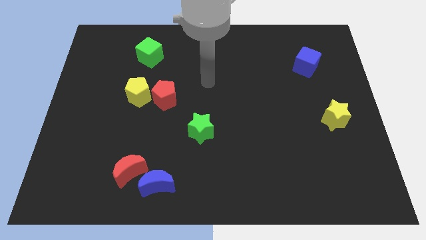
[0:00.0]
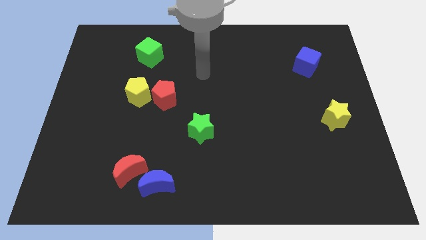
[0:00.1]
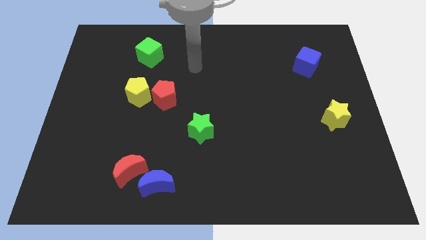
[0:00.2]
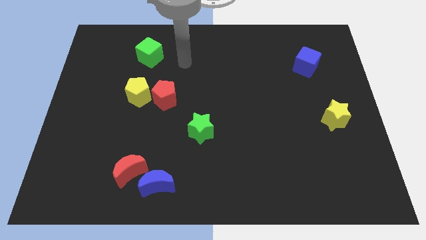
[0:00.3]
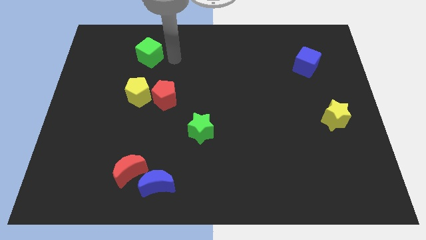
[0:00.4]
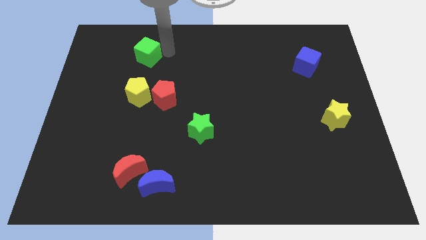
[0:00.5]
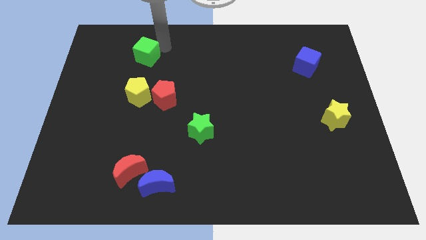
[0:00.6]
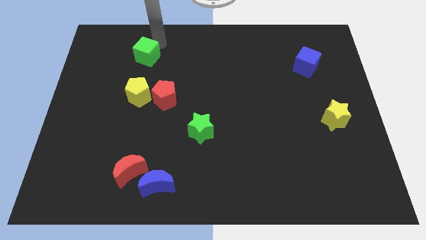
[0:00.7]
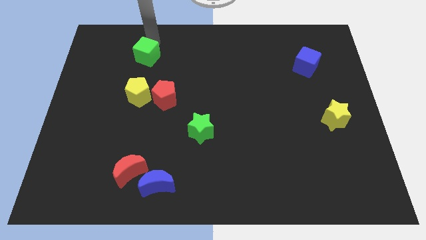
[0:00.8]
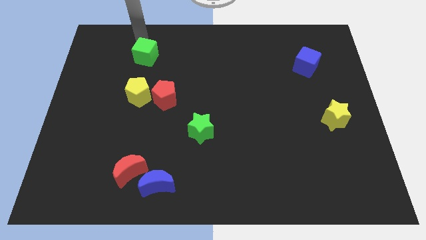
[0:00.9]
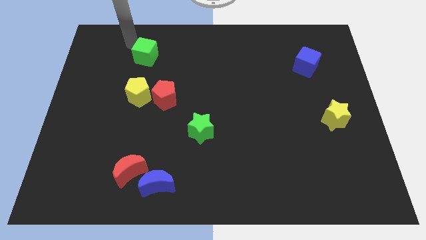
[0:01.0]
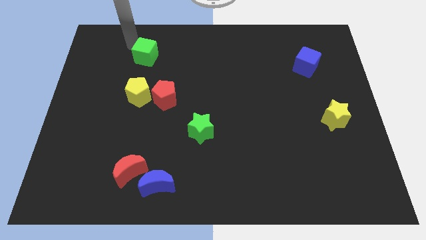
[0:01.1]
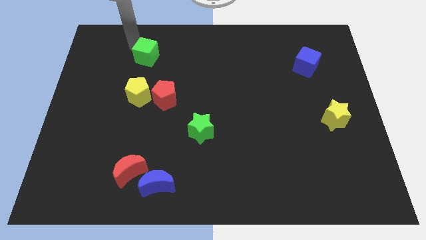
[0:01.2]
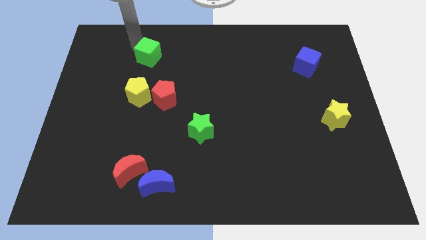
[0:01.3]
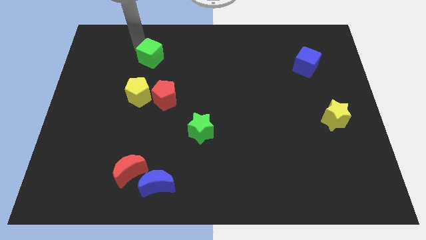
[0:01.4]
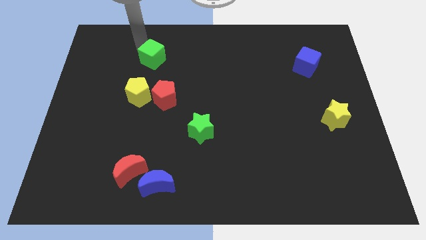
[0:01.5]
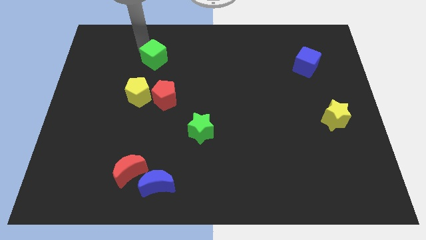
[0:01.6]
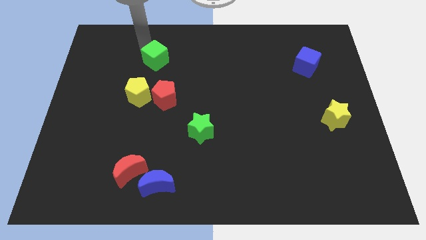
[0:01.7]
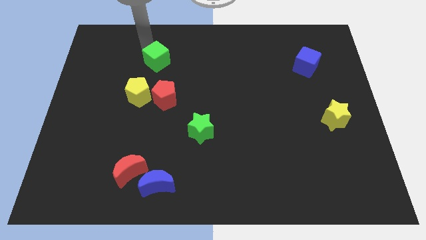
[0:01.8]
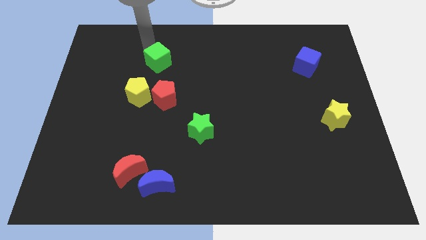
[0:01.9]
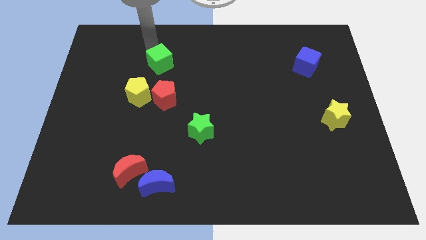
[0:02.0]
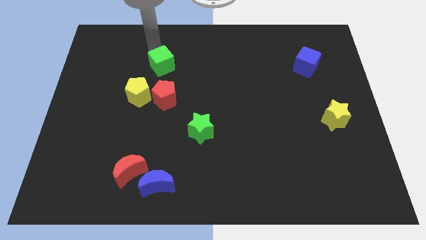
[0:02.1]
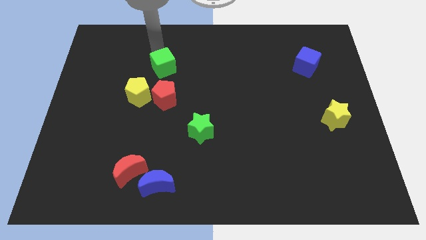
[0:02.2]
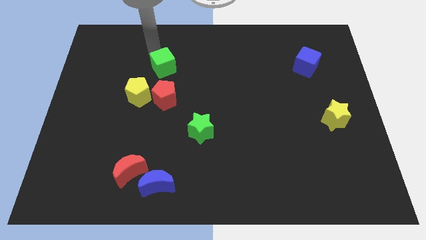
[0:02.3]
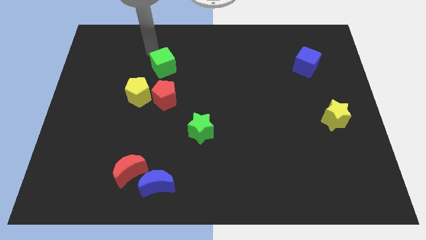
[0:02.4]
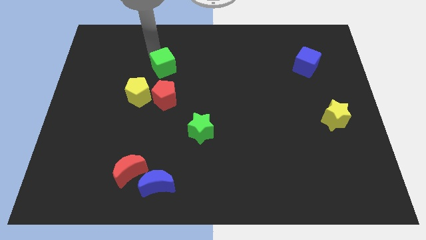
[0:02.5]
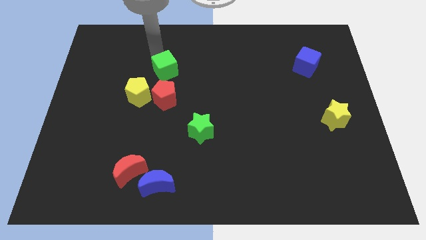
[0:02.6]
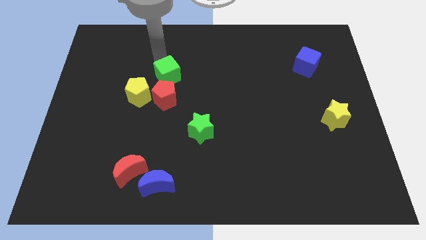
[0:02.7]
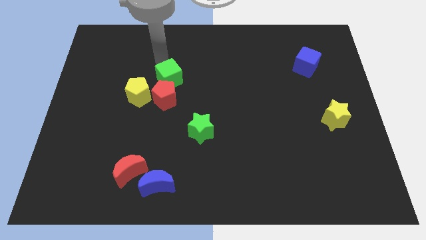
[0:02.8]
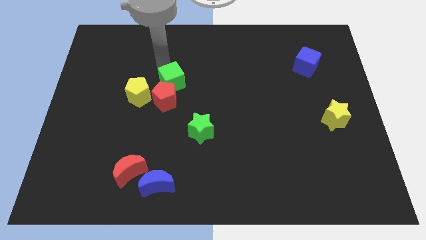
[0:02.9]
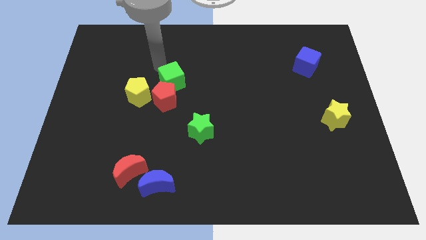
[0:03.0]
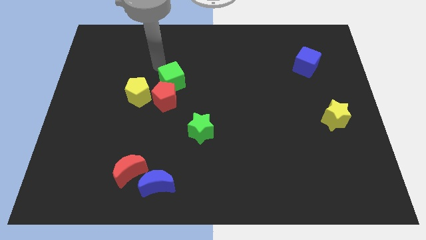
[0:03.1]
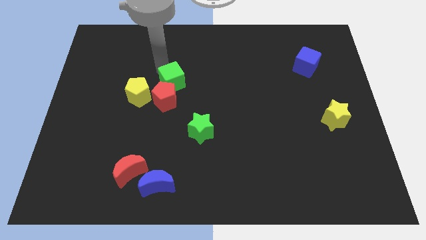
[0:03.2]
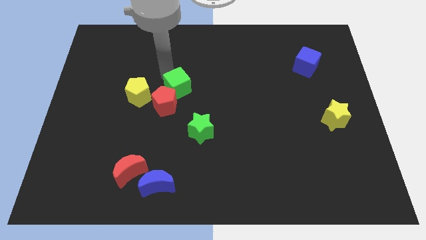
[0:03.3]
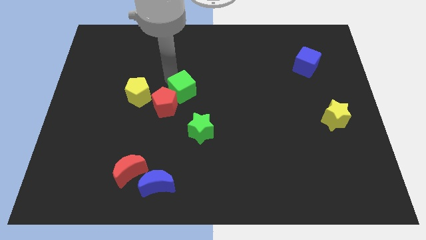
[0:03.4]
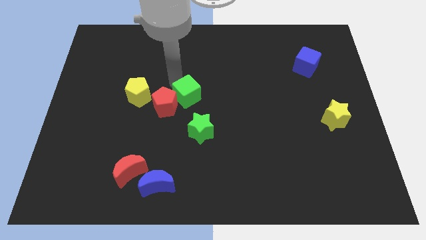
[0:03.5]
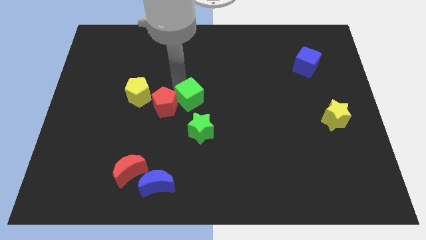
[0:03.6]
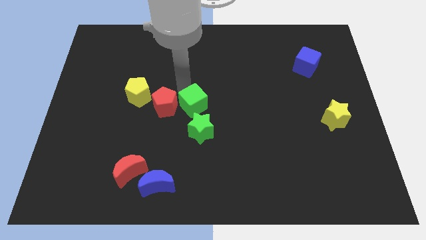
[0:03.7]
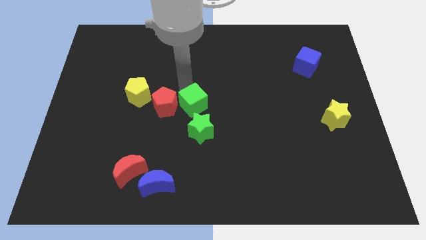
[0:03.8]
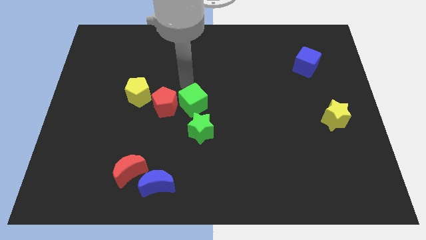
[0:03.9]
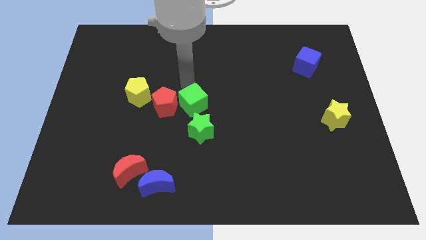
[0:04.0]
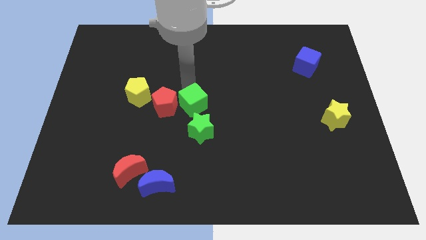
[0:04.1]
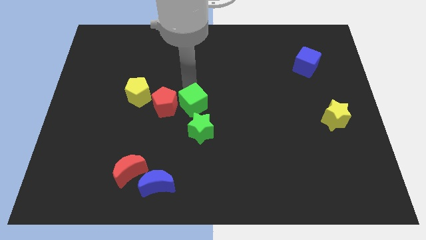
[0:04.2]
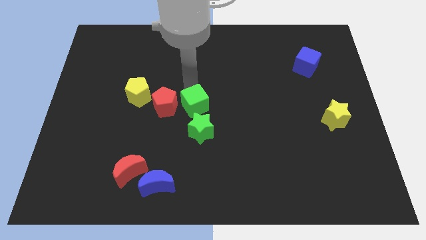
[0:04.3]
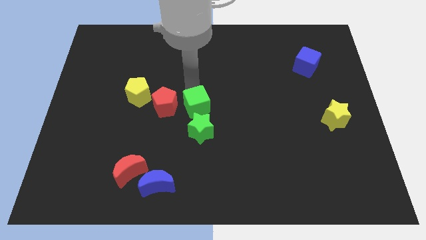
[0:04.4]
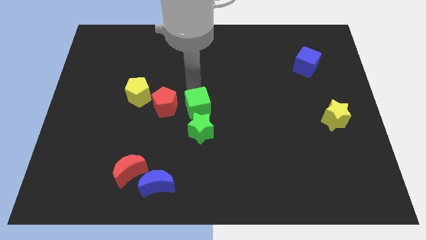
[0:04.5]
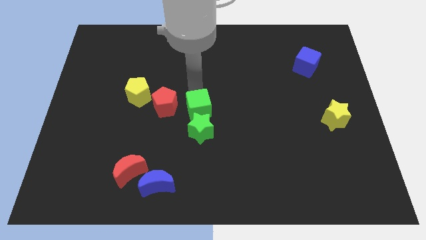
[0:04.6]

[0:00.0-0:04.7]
move the green cube next to the green star

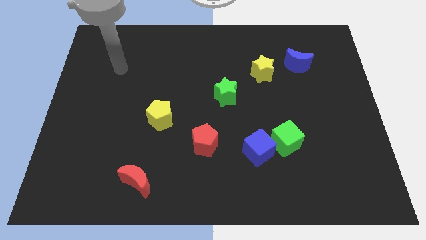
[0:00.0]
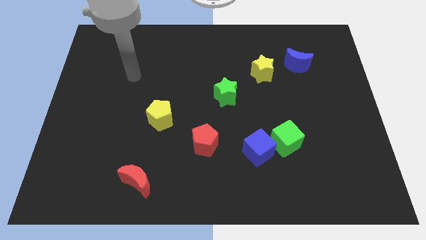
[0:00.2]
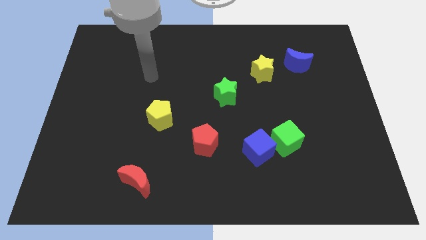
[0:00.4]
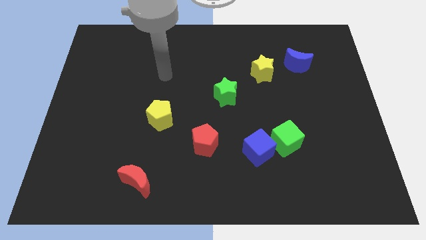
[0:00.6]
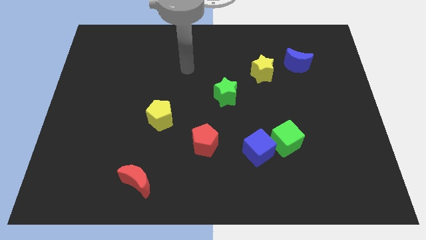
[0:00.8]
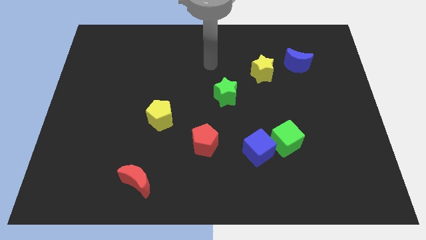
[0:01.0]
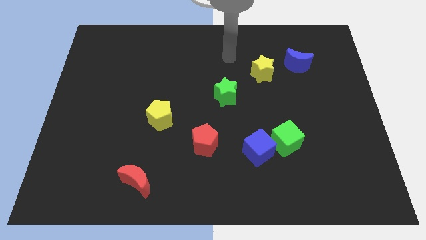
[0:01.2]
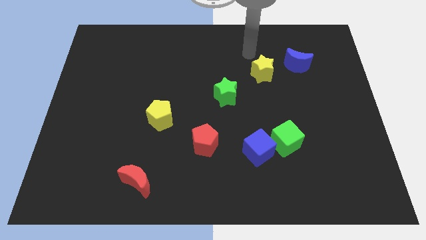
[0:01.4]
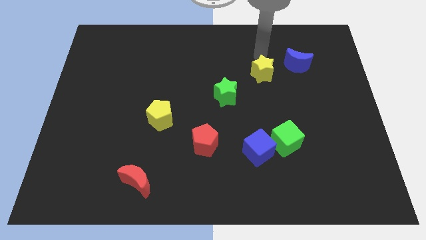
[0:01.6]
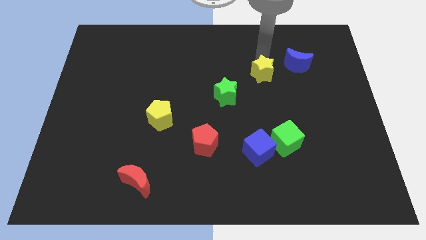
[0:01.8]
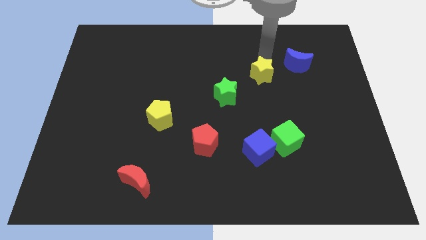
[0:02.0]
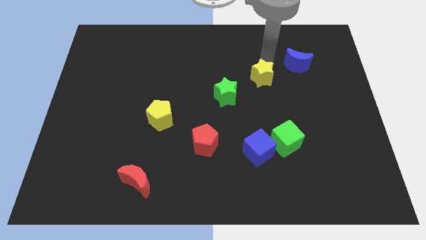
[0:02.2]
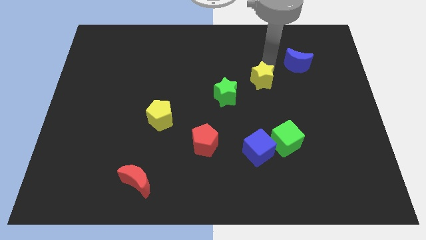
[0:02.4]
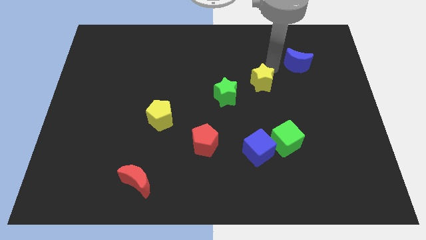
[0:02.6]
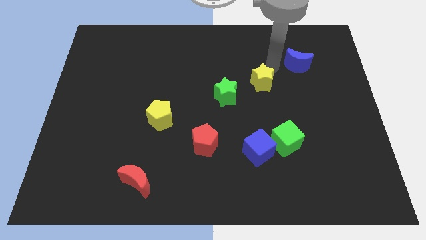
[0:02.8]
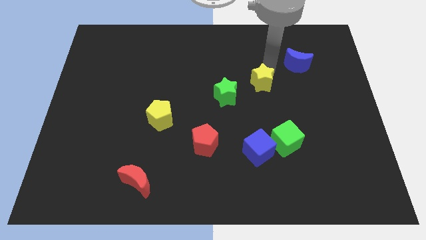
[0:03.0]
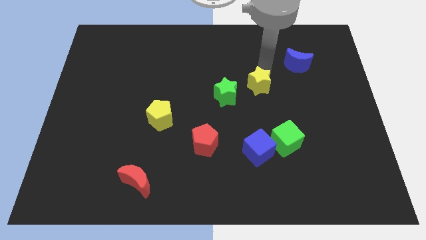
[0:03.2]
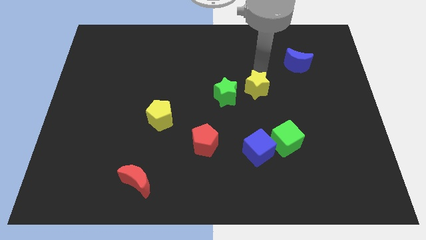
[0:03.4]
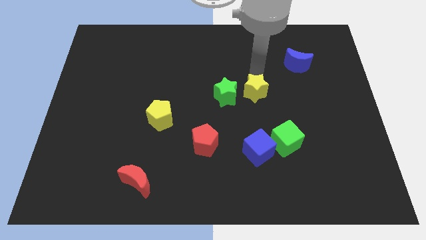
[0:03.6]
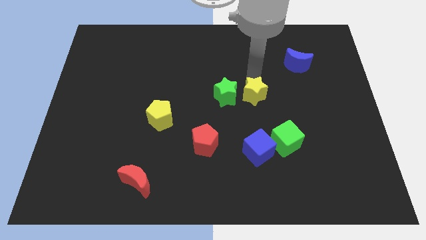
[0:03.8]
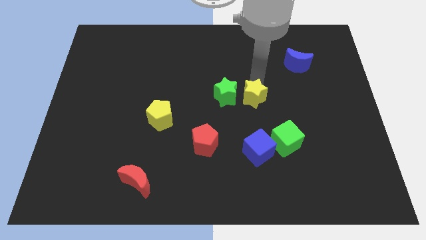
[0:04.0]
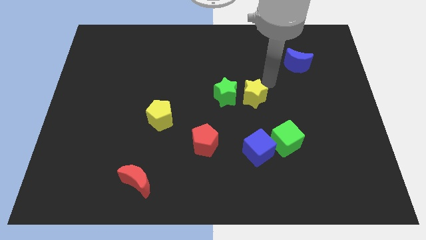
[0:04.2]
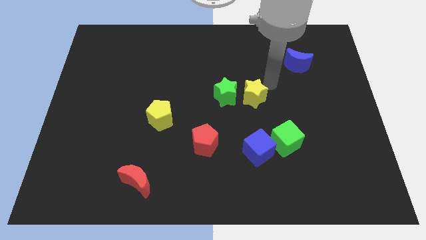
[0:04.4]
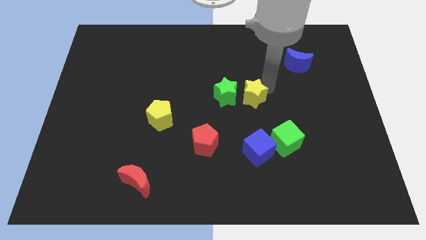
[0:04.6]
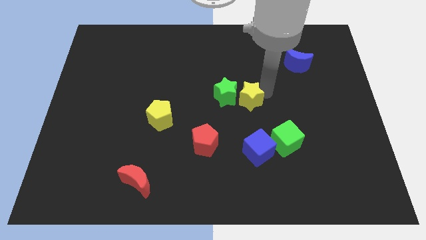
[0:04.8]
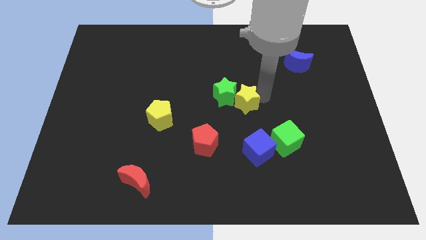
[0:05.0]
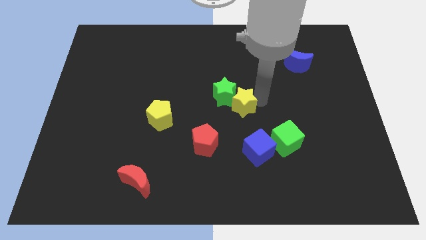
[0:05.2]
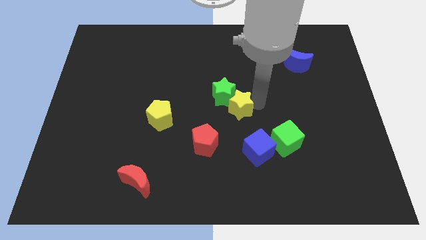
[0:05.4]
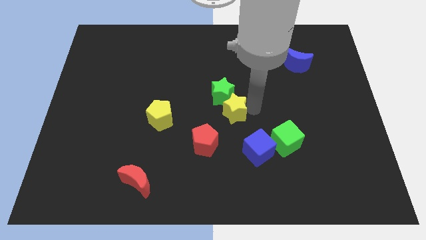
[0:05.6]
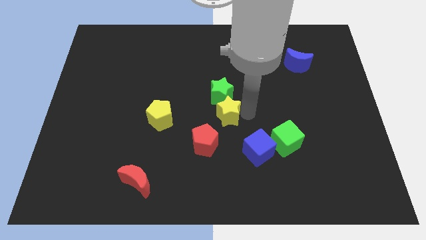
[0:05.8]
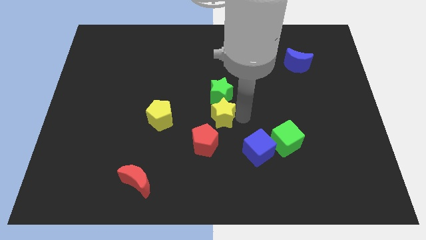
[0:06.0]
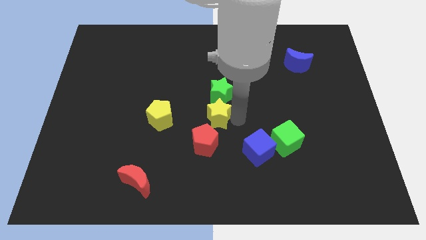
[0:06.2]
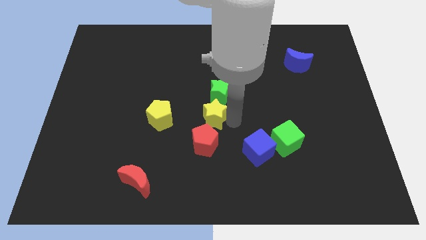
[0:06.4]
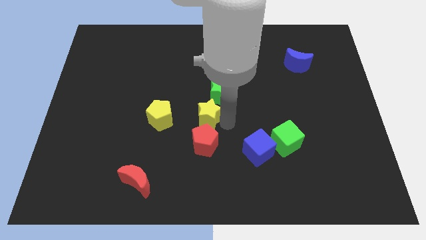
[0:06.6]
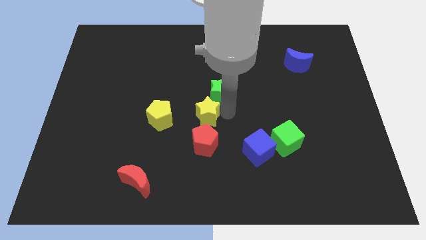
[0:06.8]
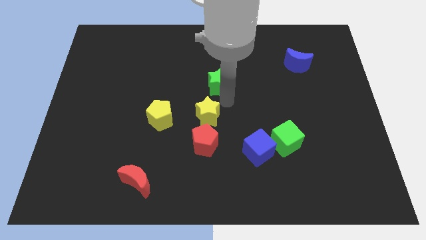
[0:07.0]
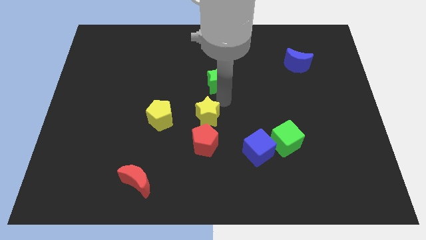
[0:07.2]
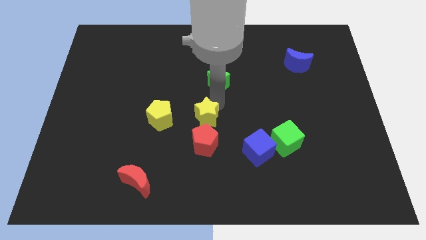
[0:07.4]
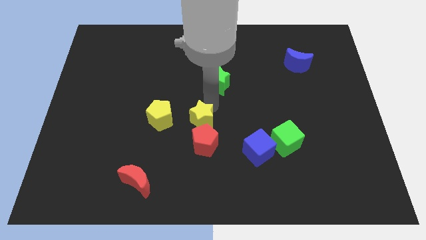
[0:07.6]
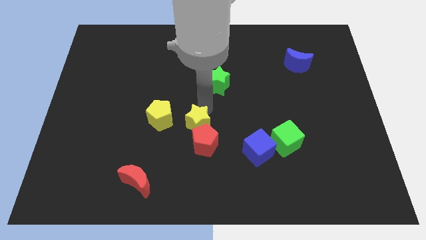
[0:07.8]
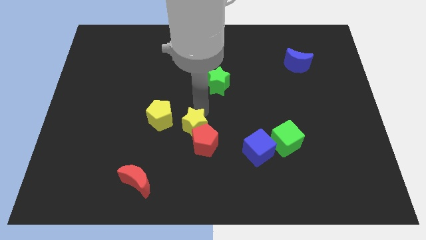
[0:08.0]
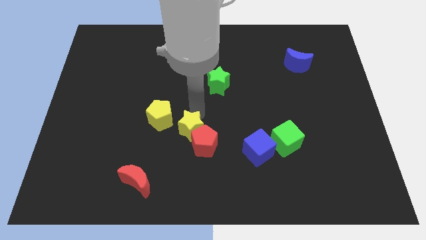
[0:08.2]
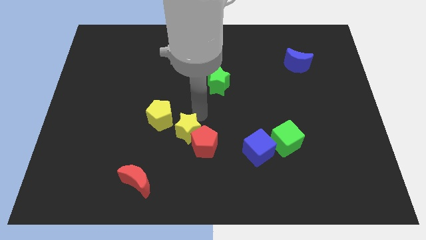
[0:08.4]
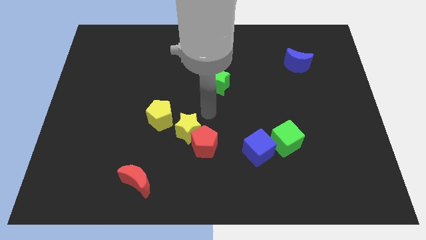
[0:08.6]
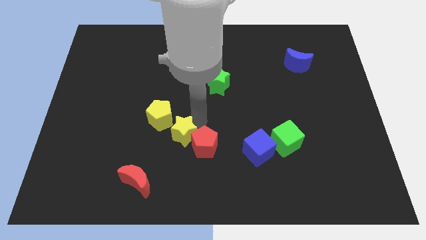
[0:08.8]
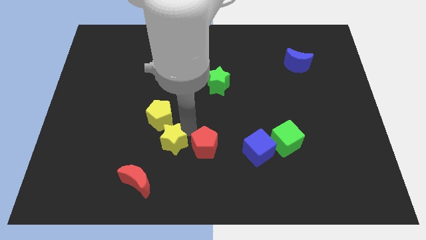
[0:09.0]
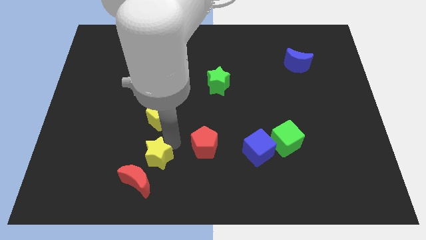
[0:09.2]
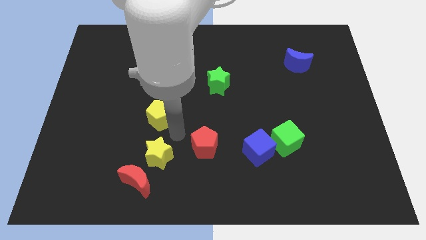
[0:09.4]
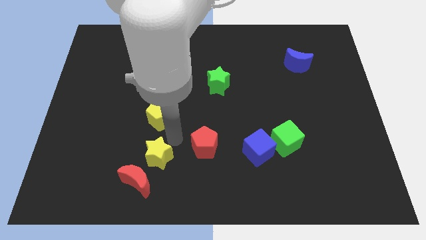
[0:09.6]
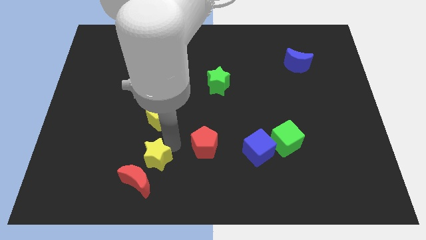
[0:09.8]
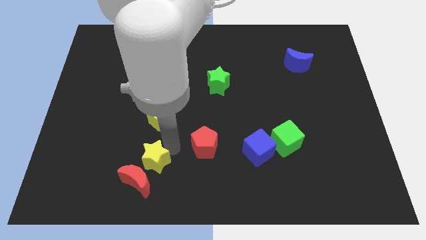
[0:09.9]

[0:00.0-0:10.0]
push the yellow star towards the red moon
